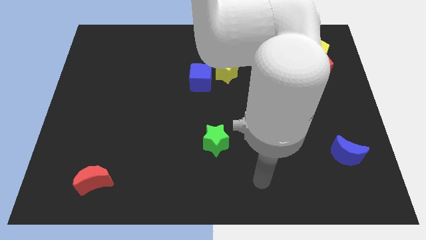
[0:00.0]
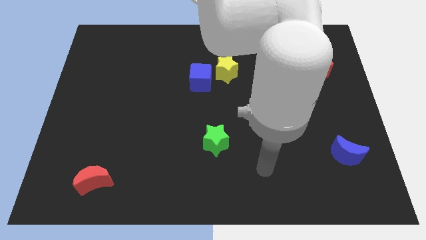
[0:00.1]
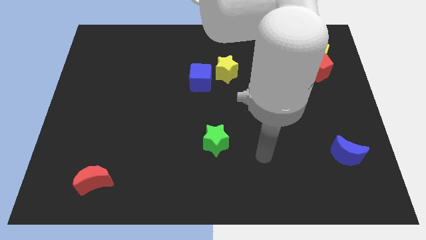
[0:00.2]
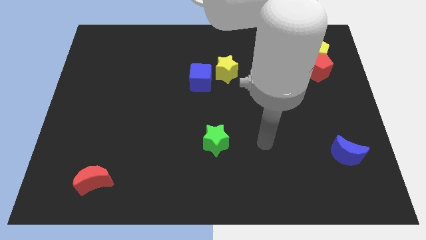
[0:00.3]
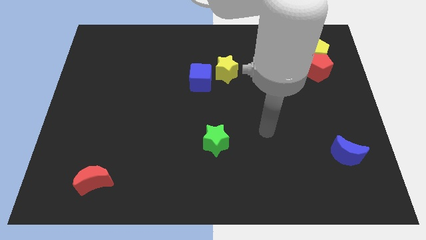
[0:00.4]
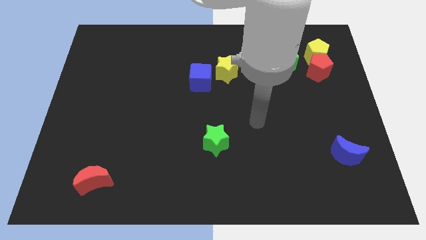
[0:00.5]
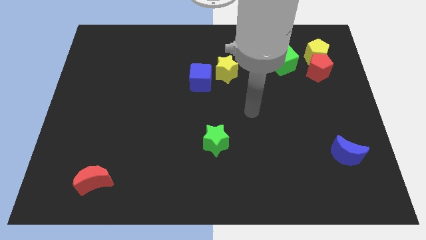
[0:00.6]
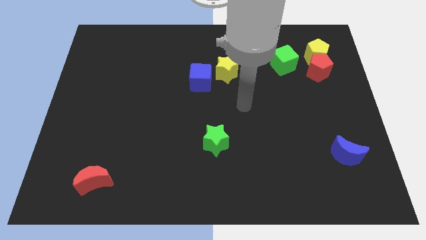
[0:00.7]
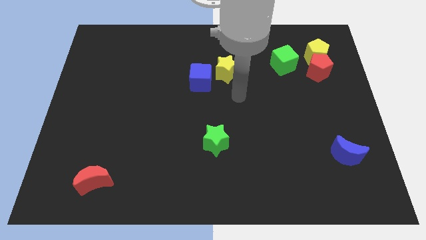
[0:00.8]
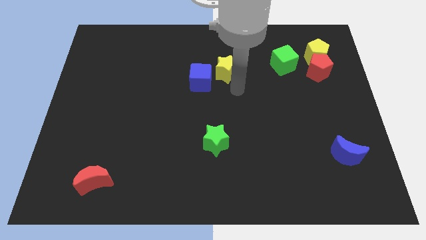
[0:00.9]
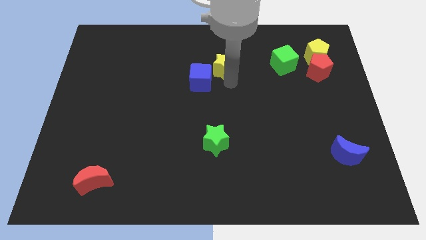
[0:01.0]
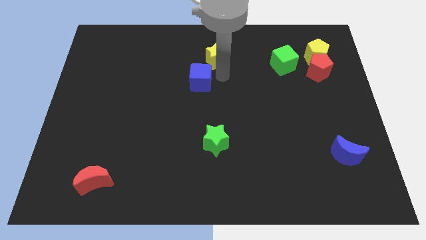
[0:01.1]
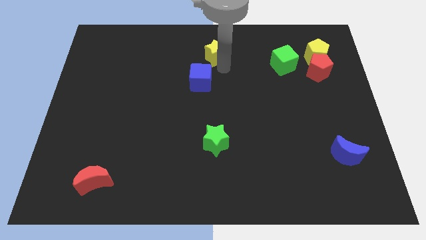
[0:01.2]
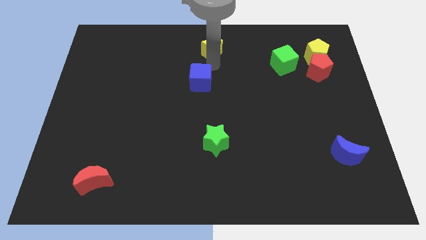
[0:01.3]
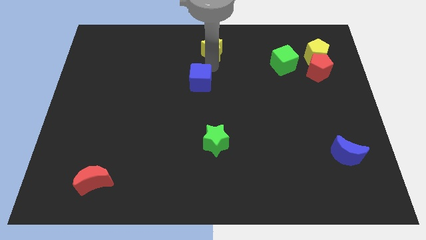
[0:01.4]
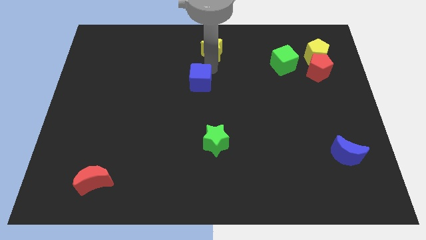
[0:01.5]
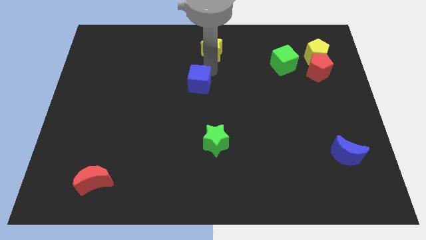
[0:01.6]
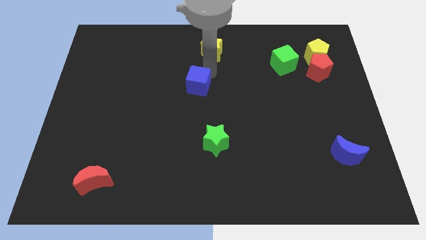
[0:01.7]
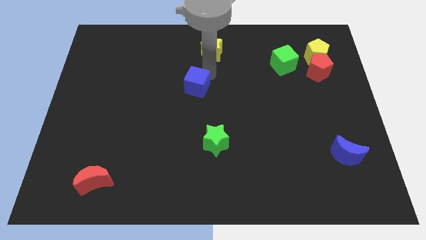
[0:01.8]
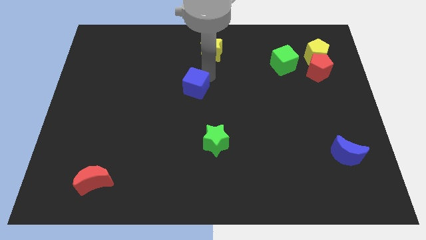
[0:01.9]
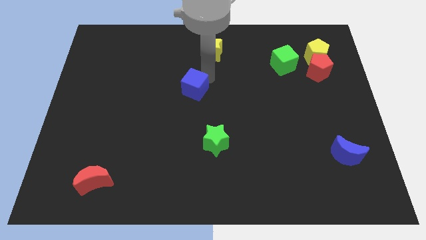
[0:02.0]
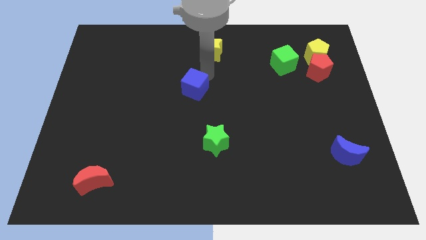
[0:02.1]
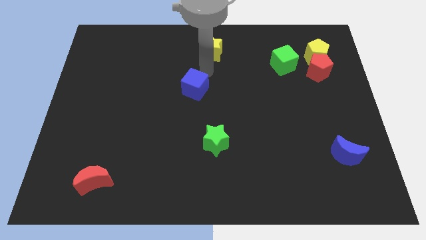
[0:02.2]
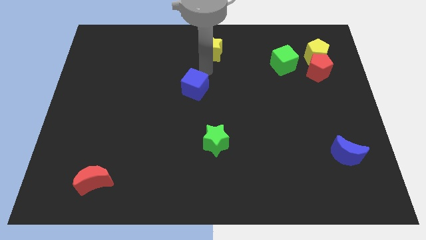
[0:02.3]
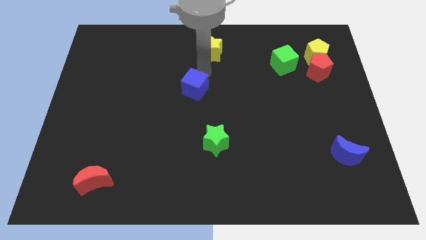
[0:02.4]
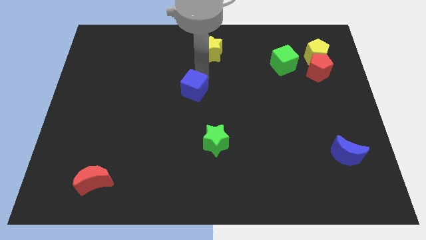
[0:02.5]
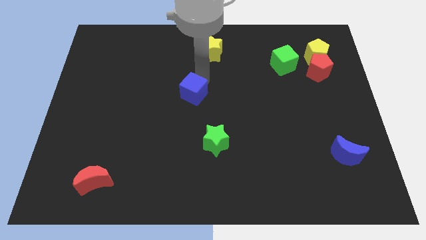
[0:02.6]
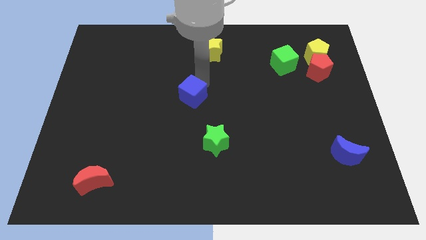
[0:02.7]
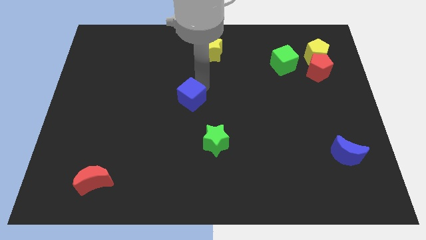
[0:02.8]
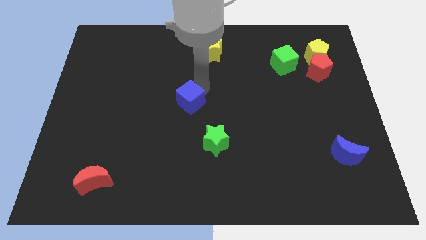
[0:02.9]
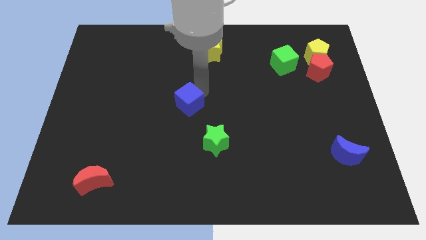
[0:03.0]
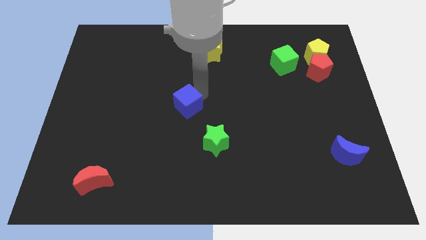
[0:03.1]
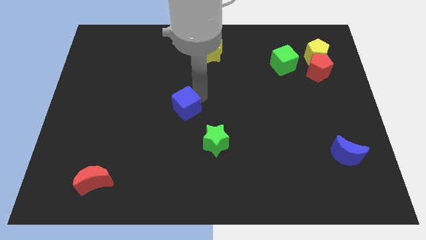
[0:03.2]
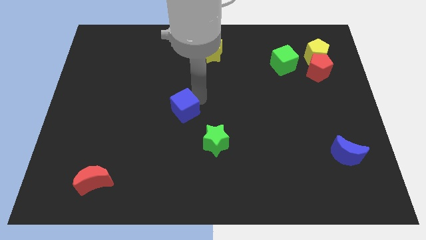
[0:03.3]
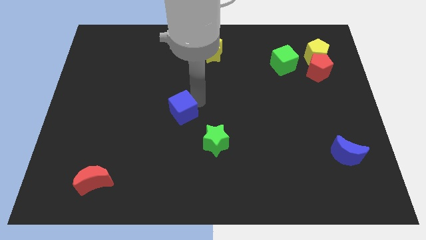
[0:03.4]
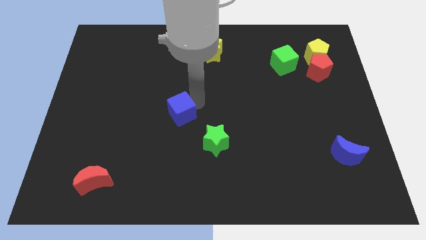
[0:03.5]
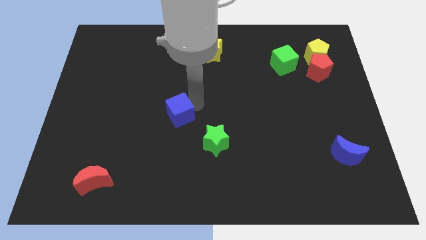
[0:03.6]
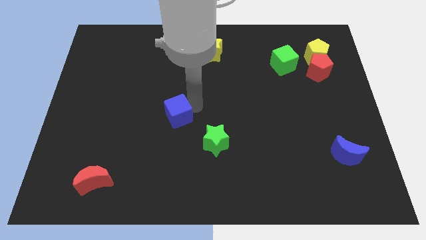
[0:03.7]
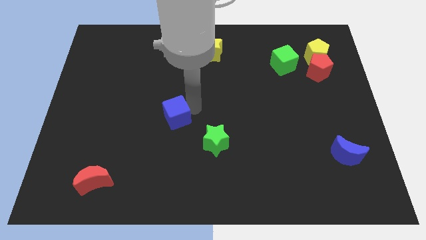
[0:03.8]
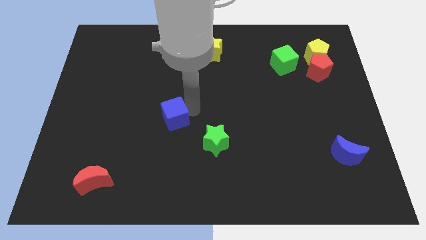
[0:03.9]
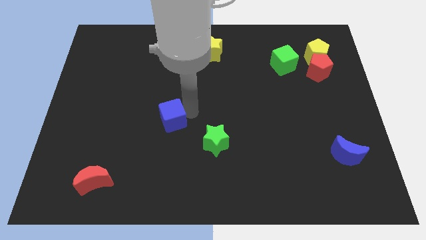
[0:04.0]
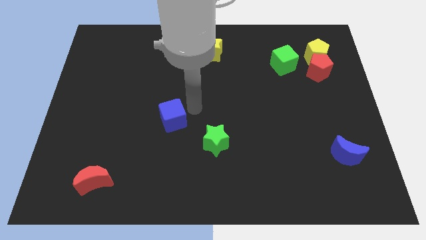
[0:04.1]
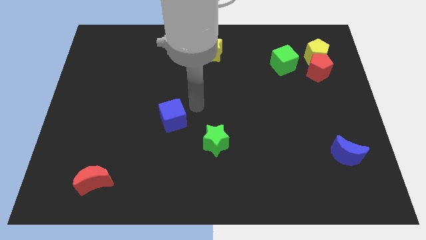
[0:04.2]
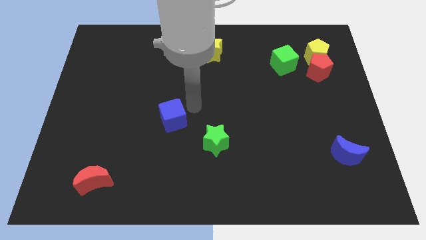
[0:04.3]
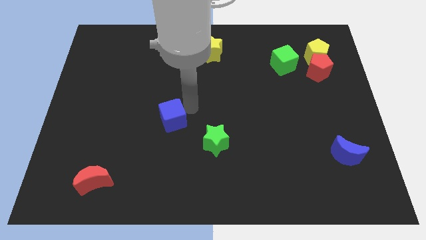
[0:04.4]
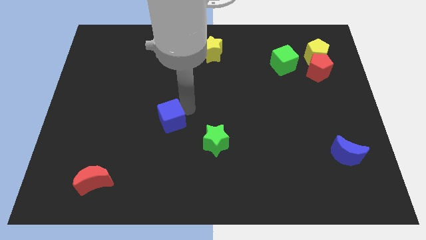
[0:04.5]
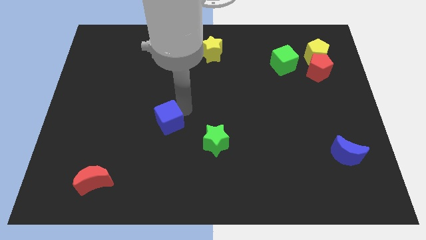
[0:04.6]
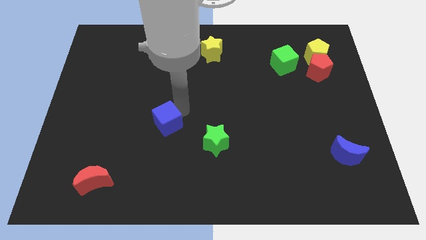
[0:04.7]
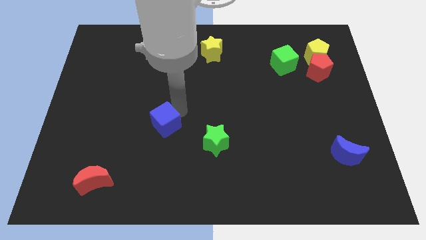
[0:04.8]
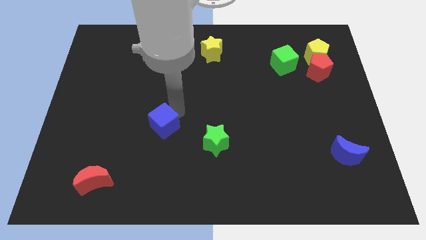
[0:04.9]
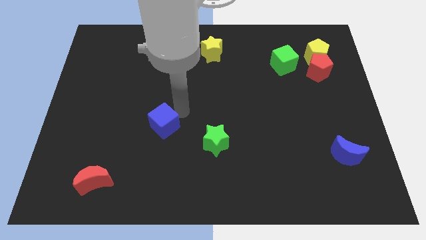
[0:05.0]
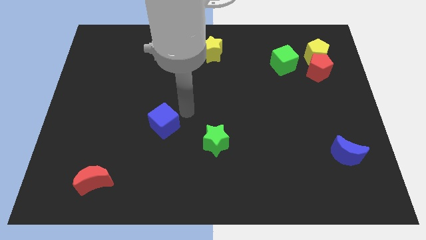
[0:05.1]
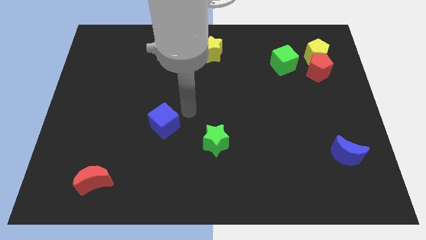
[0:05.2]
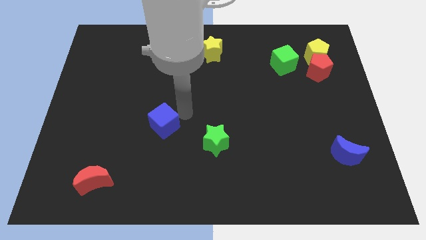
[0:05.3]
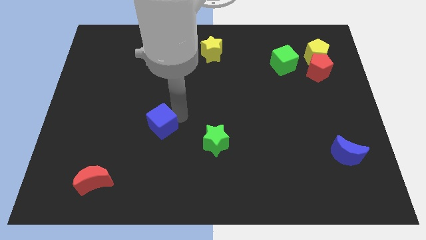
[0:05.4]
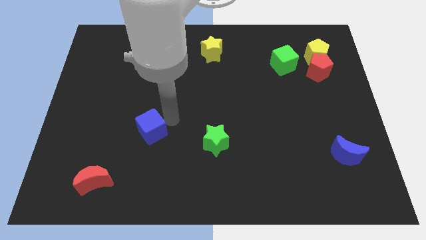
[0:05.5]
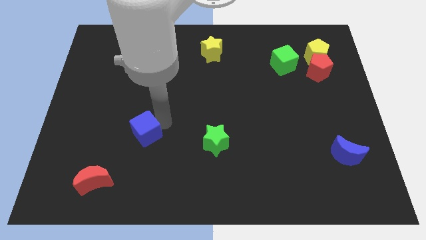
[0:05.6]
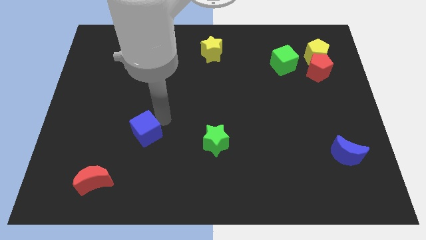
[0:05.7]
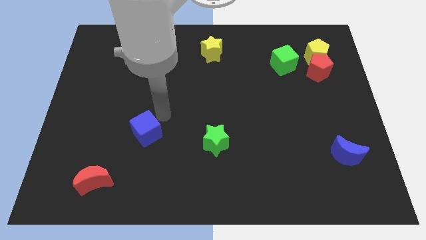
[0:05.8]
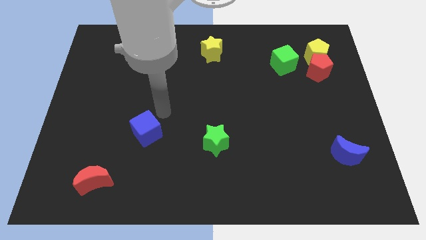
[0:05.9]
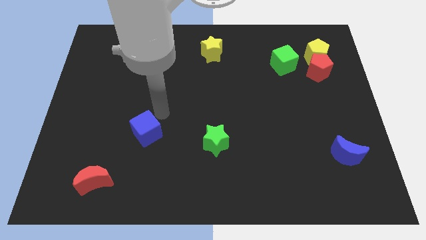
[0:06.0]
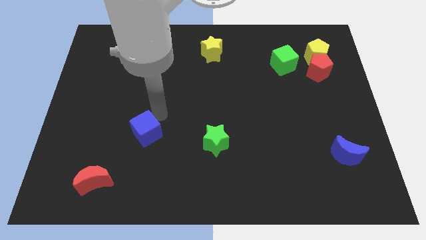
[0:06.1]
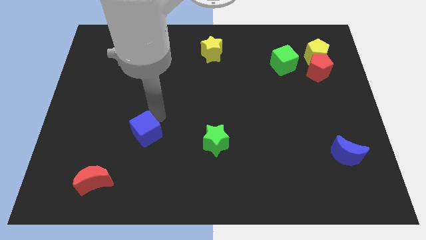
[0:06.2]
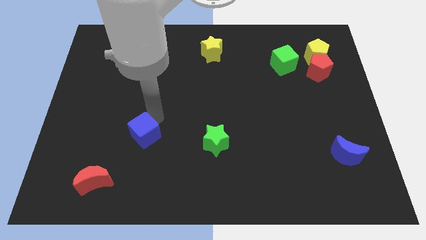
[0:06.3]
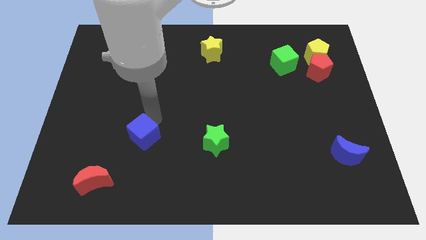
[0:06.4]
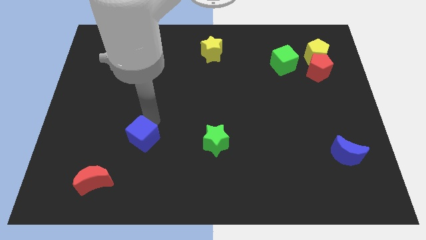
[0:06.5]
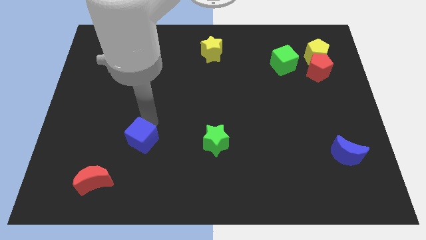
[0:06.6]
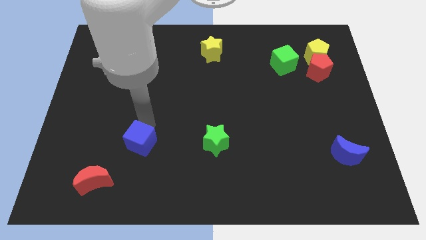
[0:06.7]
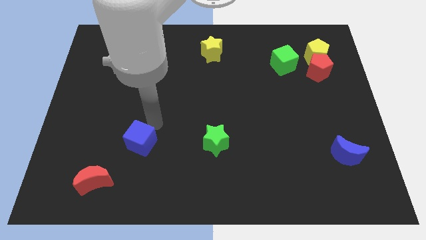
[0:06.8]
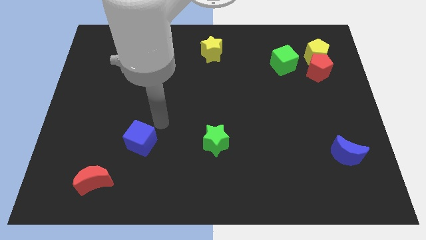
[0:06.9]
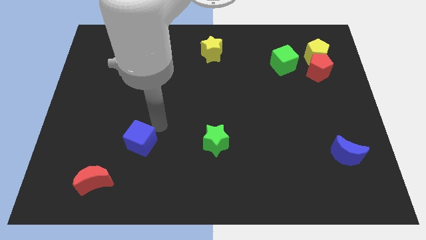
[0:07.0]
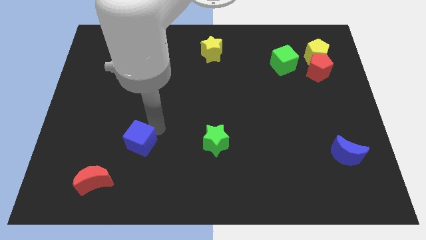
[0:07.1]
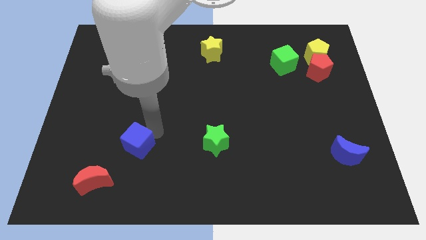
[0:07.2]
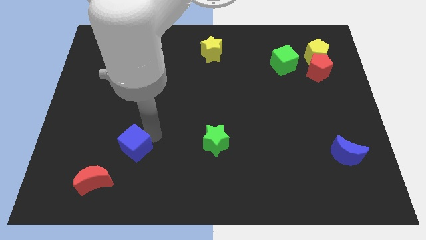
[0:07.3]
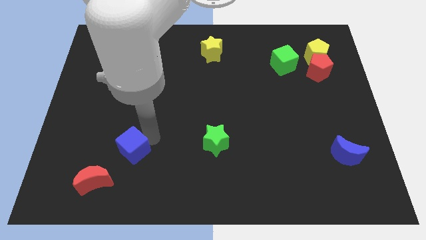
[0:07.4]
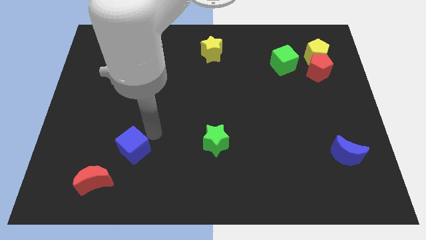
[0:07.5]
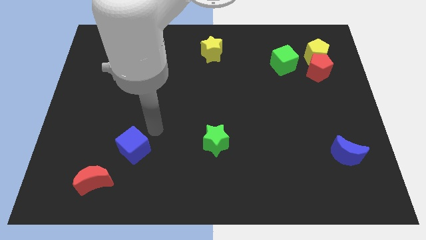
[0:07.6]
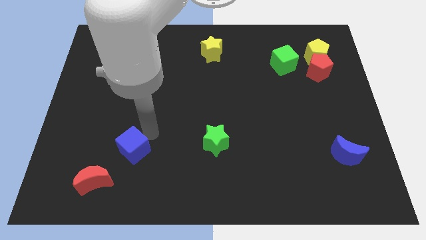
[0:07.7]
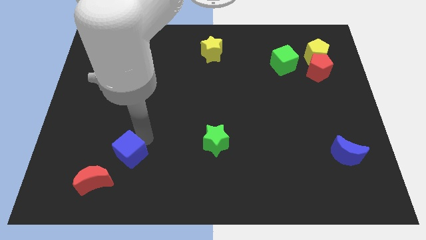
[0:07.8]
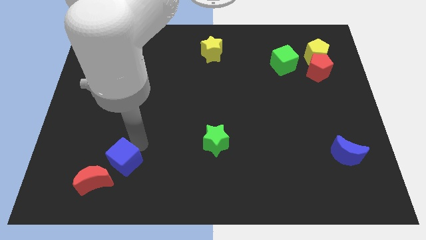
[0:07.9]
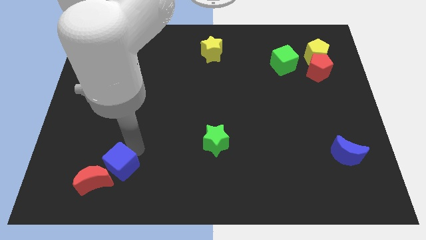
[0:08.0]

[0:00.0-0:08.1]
push the blue cube next to the red moon
